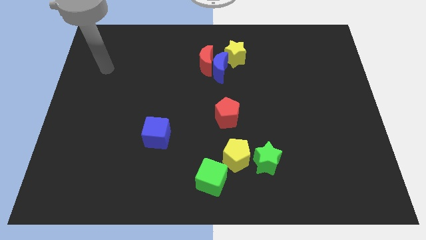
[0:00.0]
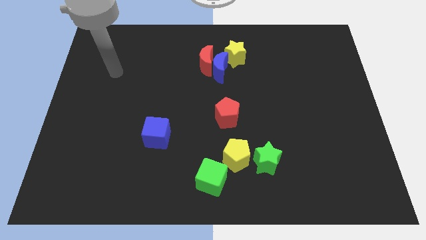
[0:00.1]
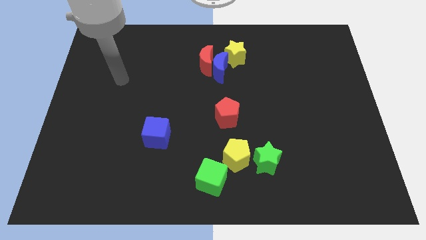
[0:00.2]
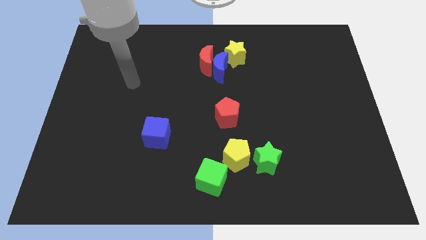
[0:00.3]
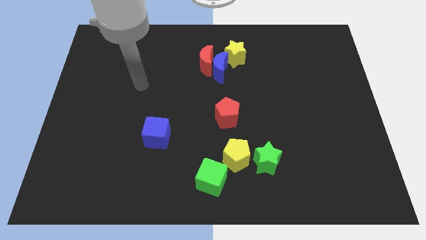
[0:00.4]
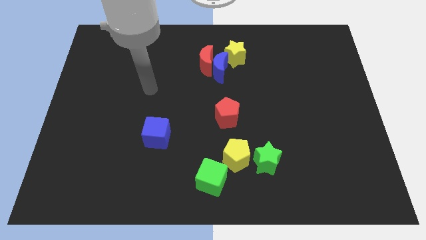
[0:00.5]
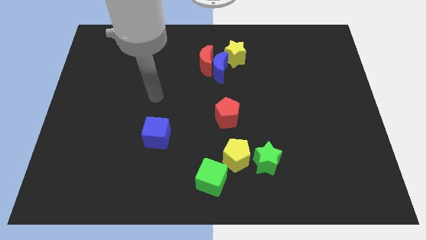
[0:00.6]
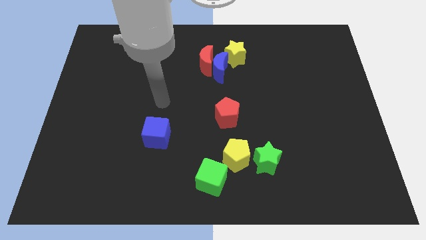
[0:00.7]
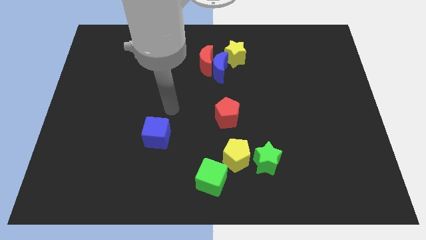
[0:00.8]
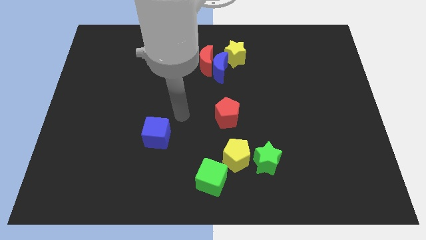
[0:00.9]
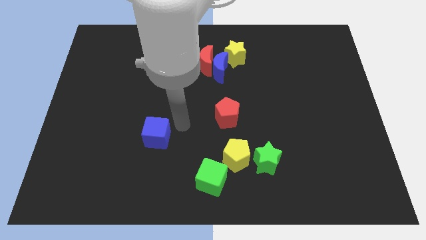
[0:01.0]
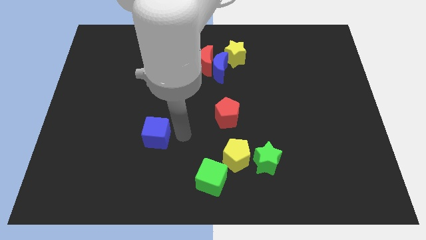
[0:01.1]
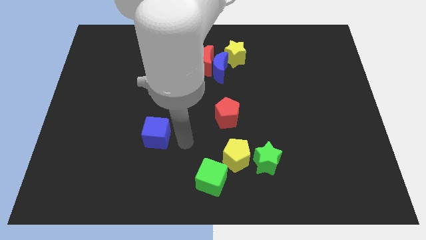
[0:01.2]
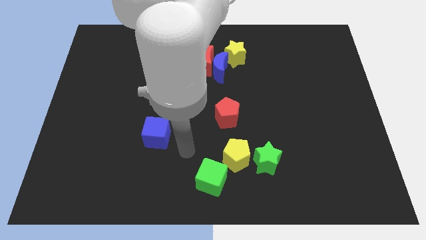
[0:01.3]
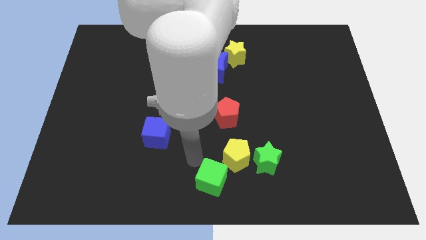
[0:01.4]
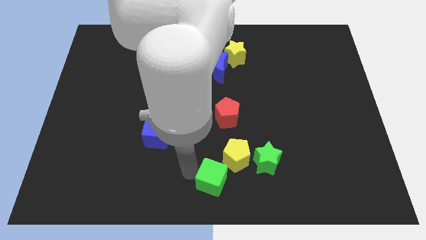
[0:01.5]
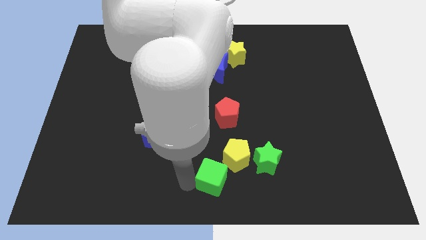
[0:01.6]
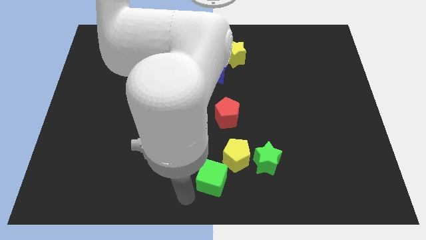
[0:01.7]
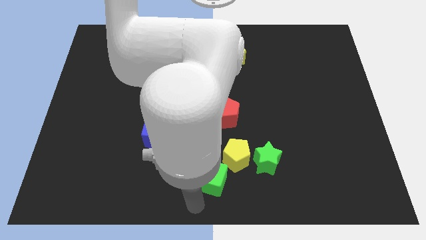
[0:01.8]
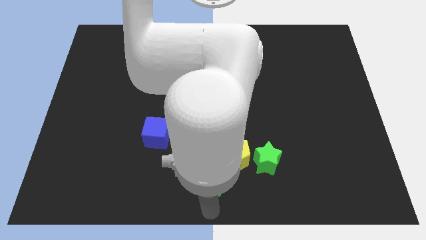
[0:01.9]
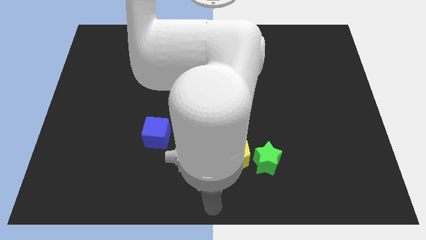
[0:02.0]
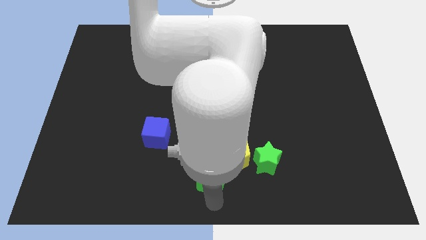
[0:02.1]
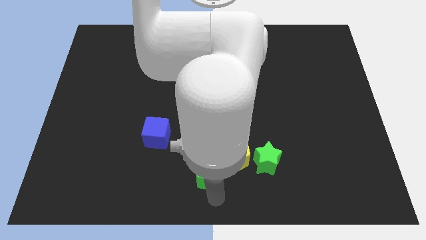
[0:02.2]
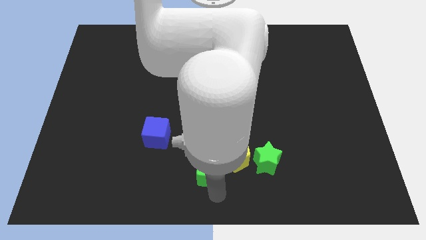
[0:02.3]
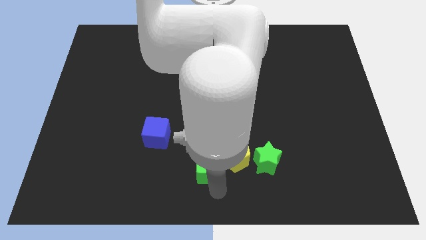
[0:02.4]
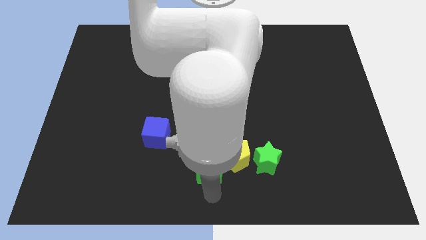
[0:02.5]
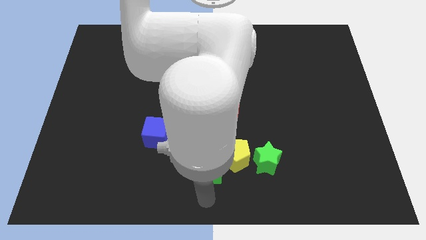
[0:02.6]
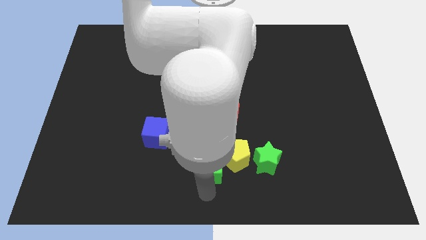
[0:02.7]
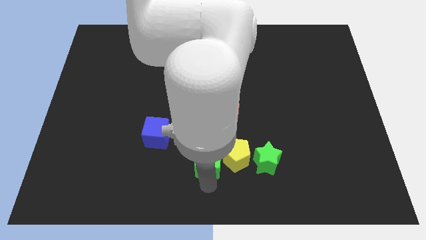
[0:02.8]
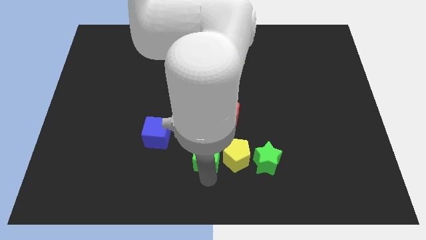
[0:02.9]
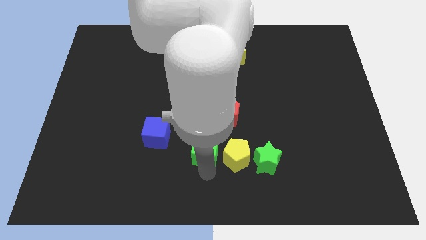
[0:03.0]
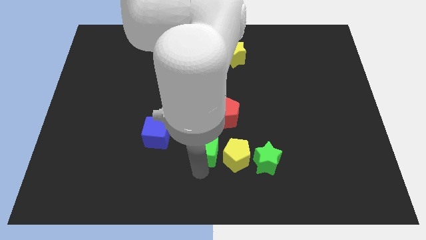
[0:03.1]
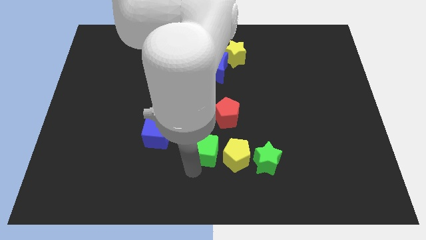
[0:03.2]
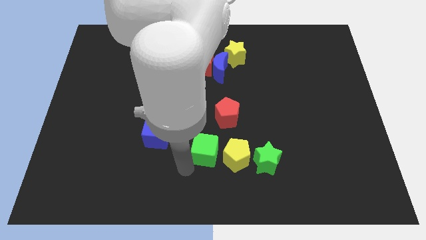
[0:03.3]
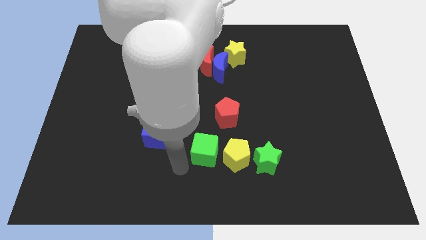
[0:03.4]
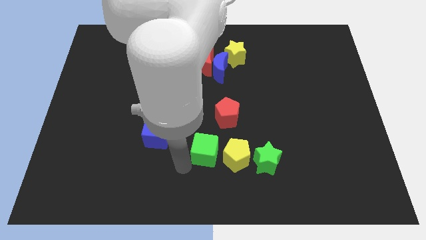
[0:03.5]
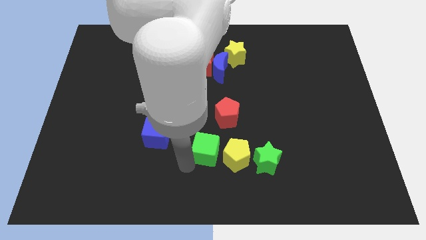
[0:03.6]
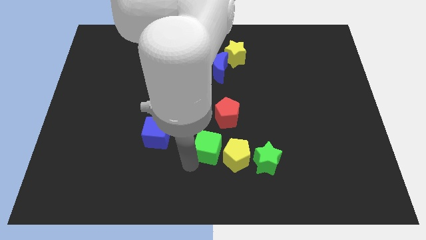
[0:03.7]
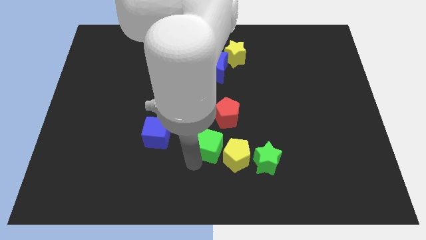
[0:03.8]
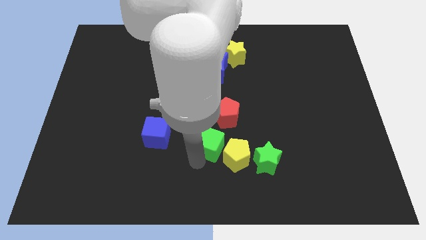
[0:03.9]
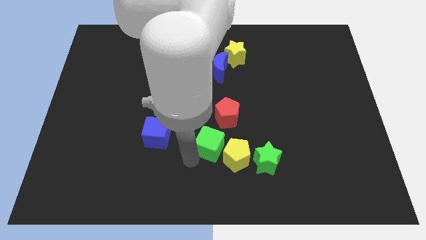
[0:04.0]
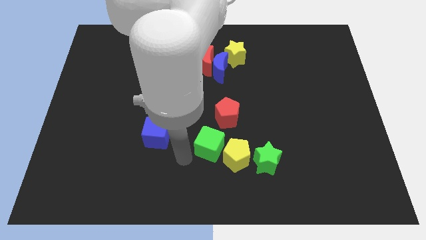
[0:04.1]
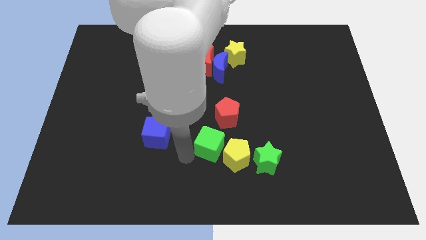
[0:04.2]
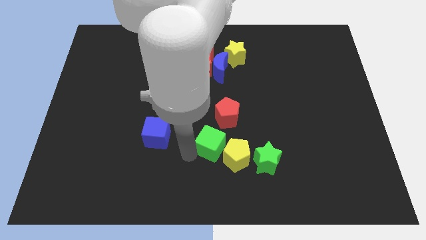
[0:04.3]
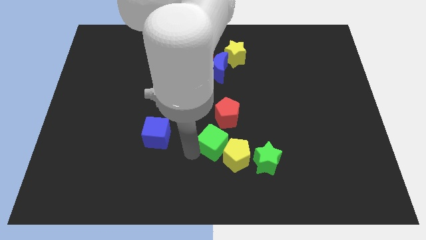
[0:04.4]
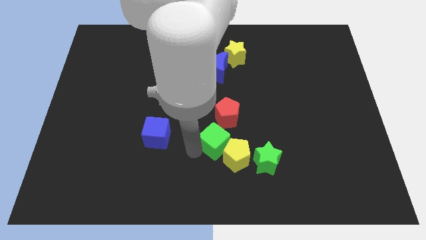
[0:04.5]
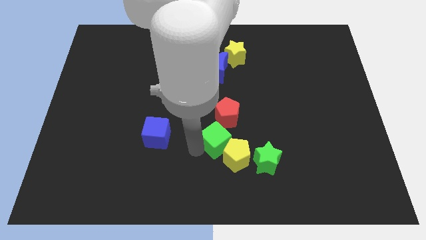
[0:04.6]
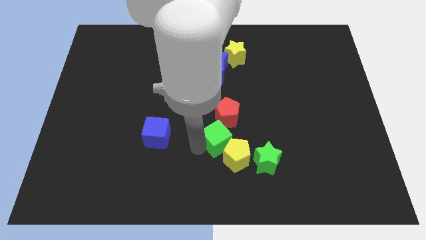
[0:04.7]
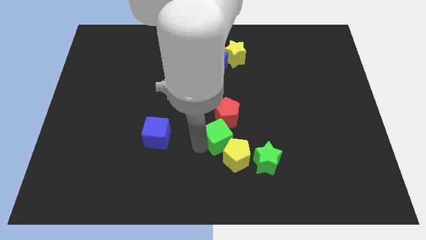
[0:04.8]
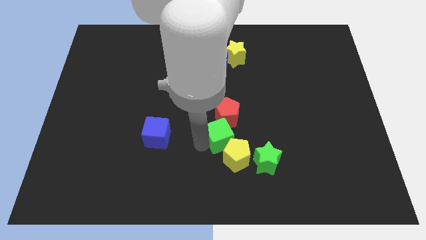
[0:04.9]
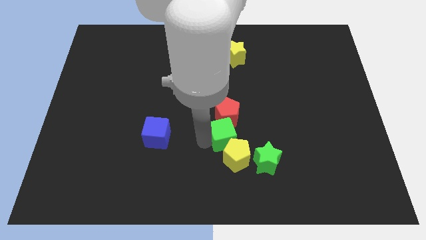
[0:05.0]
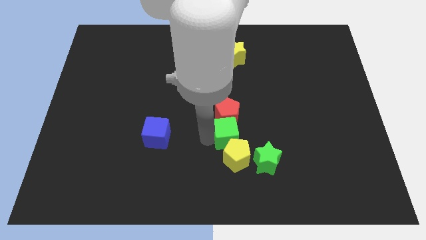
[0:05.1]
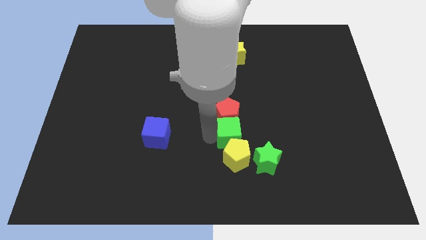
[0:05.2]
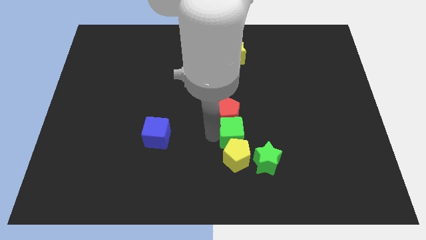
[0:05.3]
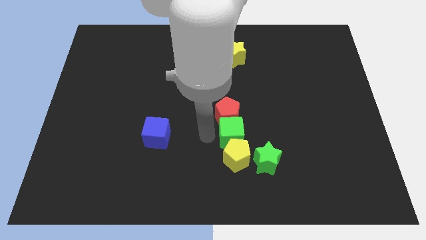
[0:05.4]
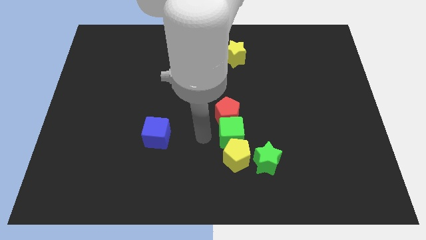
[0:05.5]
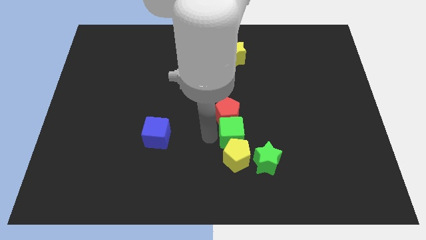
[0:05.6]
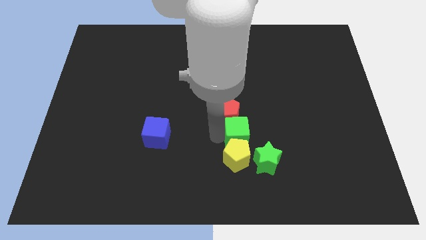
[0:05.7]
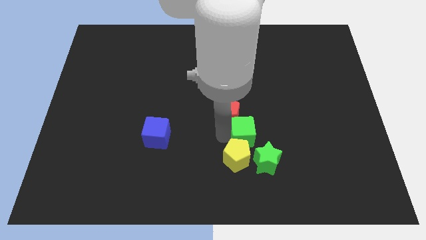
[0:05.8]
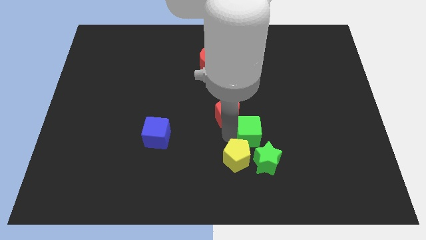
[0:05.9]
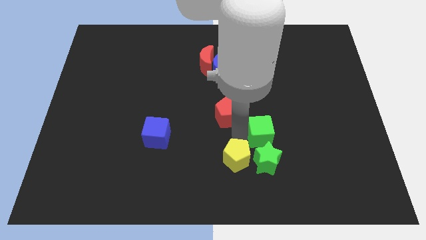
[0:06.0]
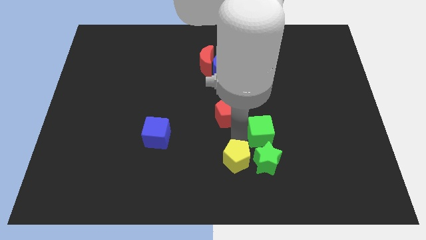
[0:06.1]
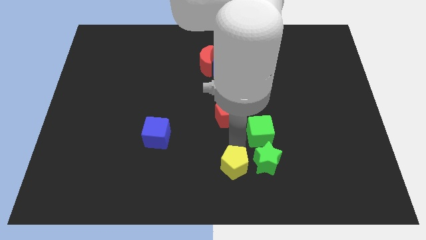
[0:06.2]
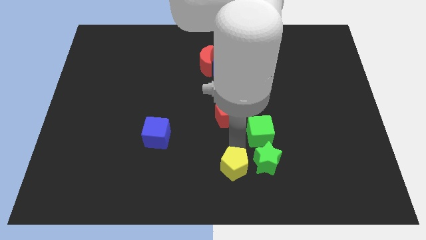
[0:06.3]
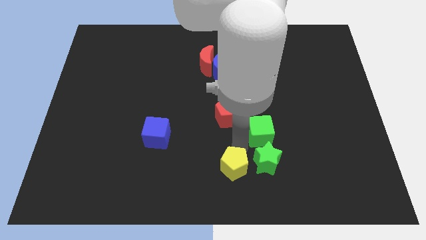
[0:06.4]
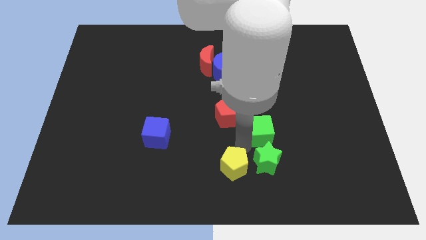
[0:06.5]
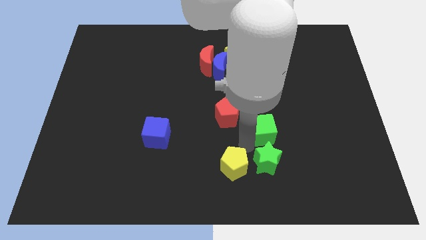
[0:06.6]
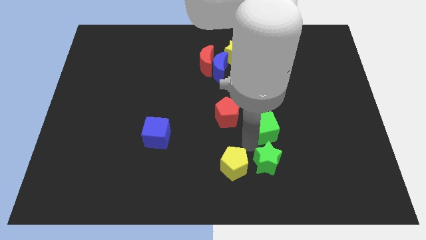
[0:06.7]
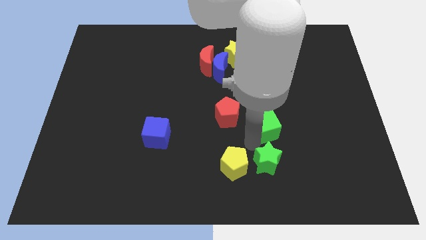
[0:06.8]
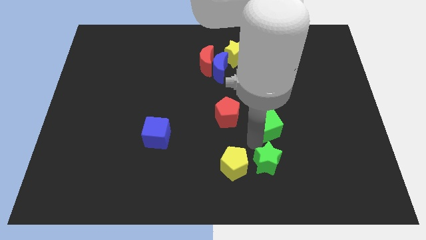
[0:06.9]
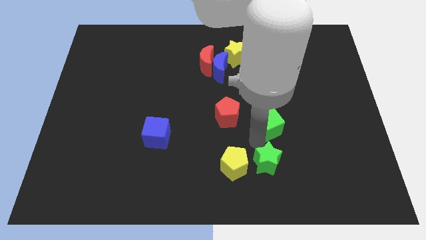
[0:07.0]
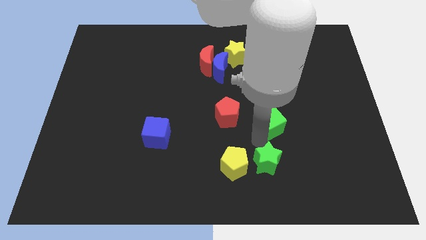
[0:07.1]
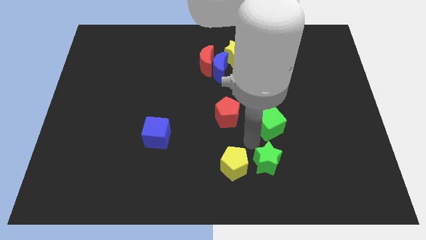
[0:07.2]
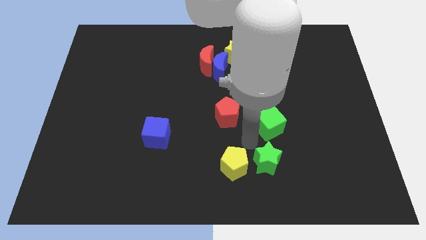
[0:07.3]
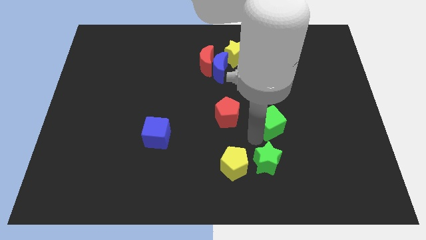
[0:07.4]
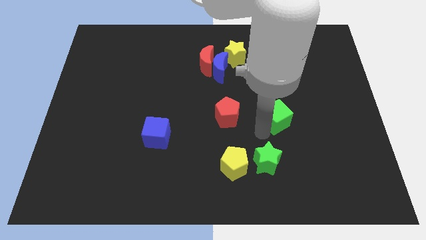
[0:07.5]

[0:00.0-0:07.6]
slide the green cube up and right diagonally

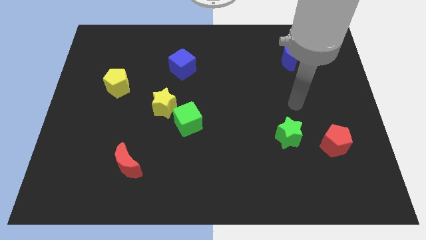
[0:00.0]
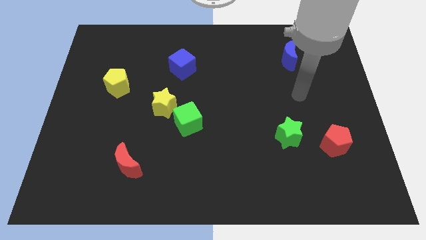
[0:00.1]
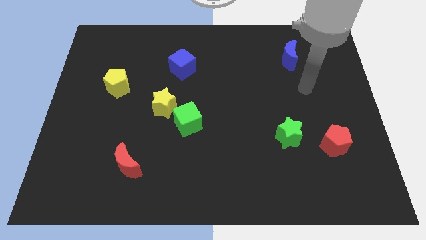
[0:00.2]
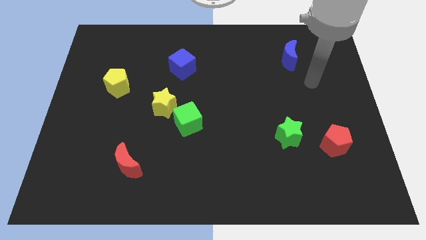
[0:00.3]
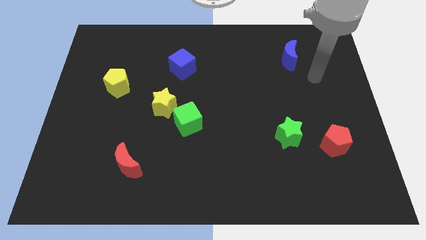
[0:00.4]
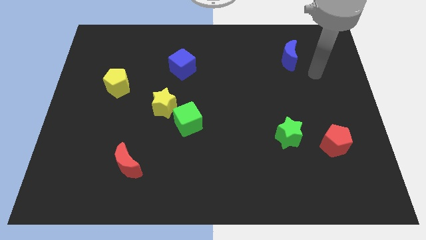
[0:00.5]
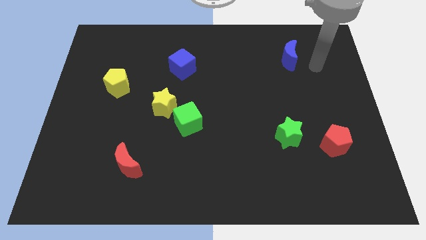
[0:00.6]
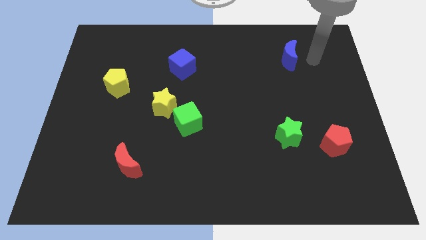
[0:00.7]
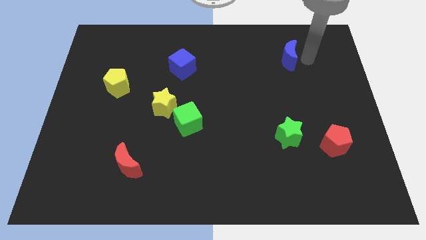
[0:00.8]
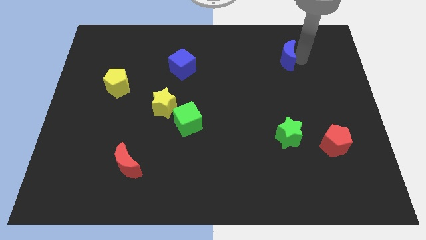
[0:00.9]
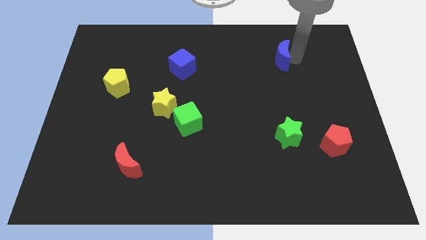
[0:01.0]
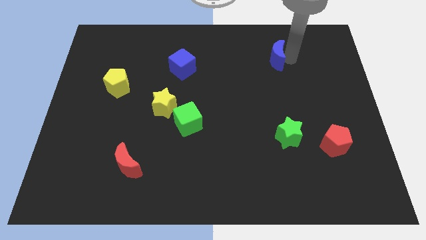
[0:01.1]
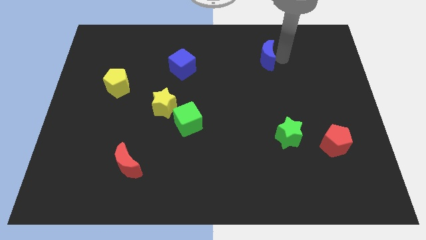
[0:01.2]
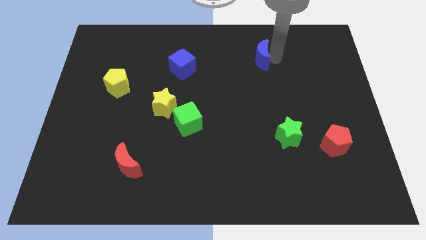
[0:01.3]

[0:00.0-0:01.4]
slide the blue moon somewhat to the left
